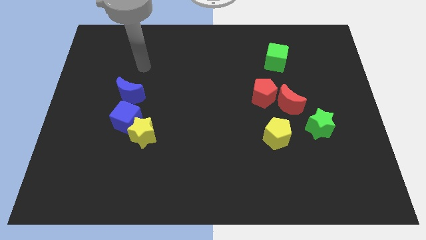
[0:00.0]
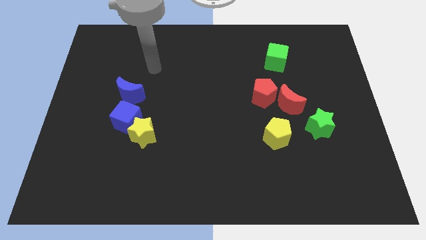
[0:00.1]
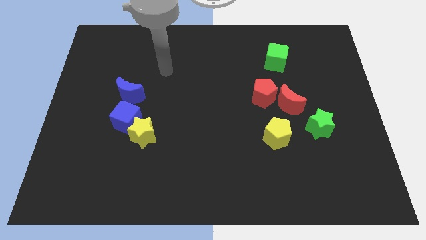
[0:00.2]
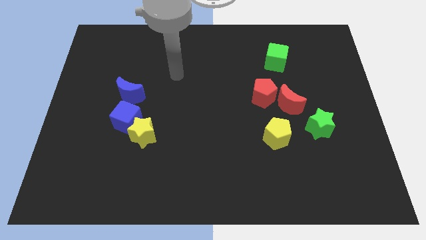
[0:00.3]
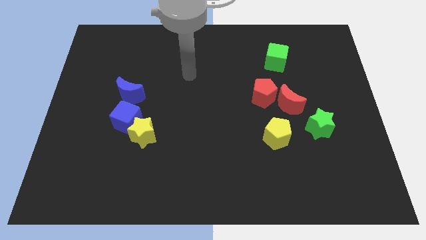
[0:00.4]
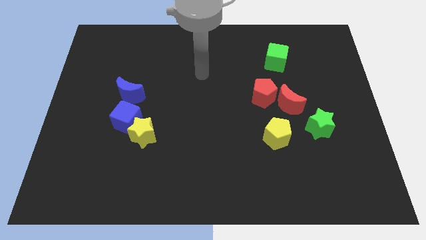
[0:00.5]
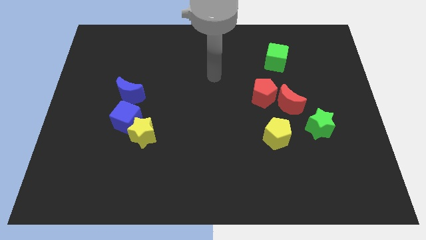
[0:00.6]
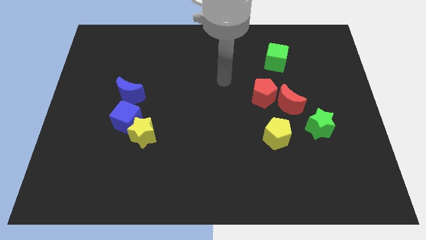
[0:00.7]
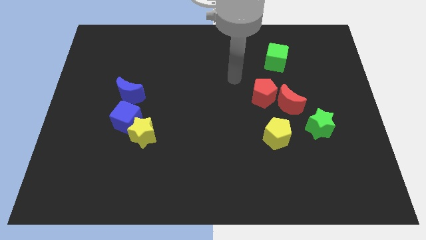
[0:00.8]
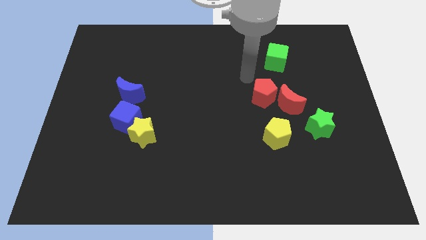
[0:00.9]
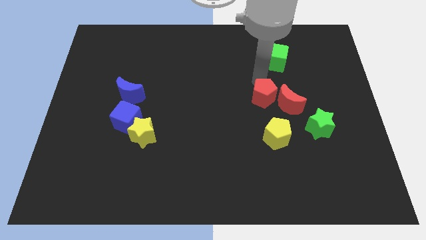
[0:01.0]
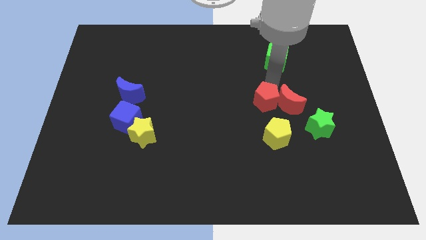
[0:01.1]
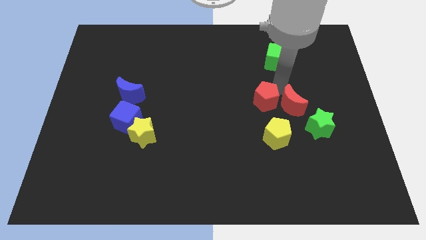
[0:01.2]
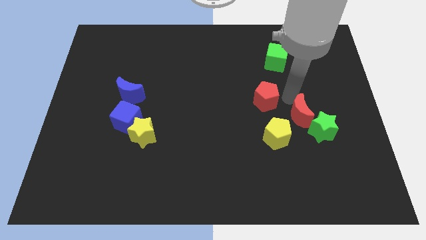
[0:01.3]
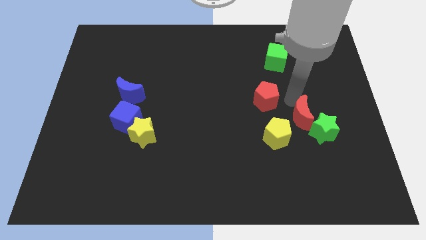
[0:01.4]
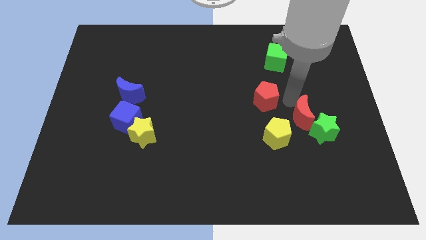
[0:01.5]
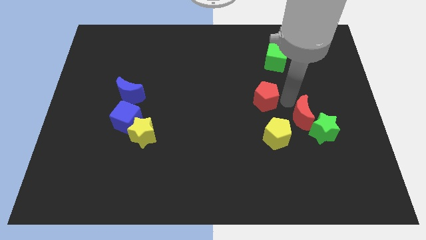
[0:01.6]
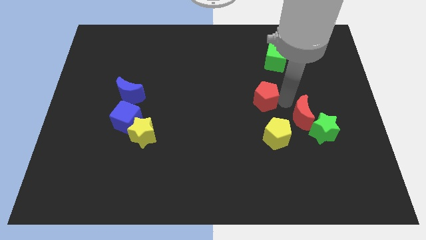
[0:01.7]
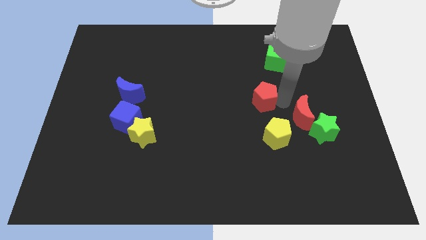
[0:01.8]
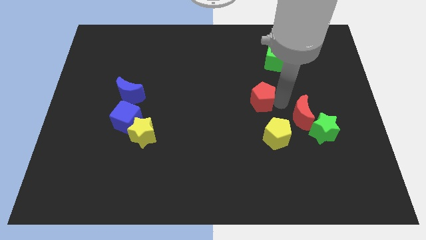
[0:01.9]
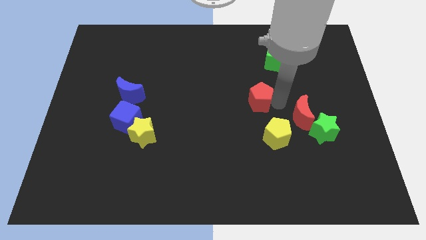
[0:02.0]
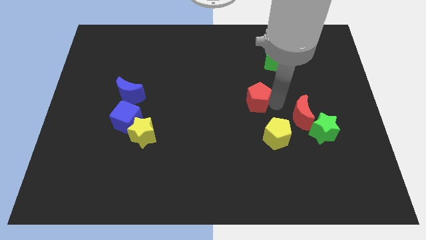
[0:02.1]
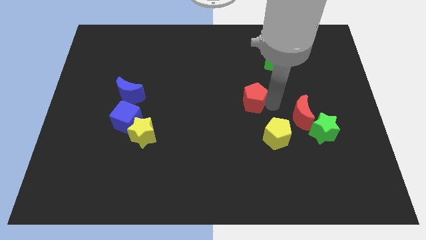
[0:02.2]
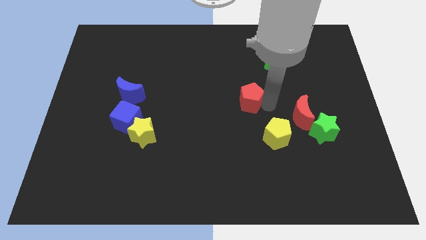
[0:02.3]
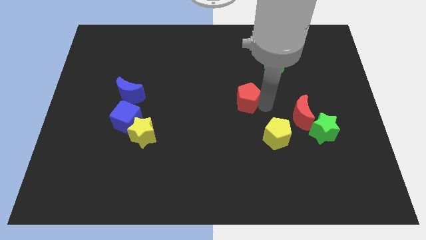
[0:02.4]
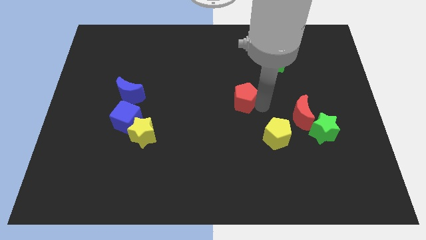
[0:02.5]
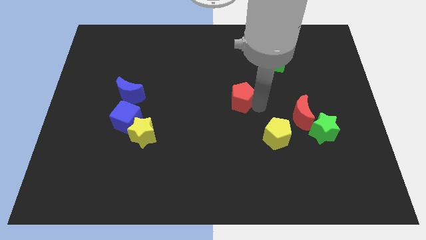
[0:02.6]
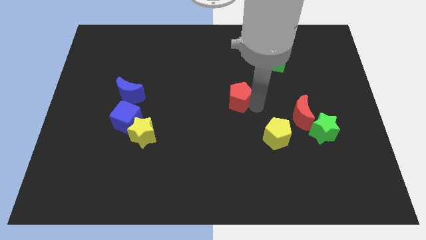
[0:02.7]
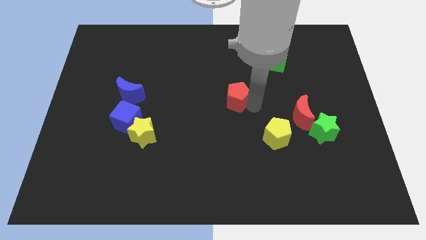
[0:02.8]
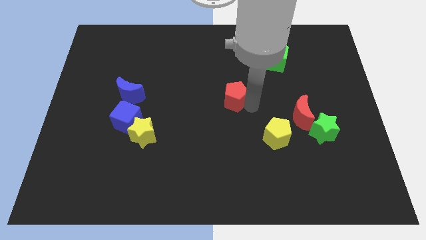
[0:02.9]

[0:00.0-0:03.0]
push the red pentagon to the left a bit

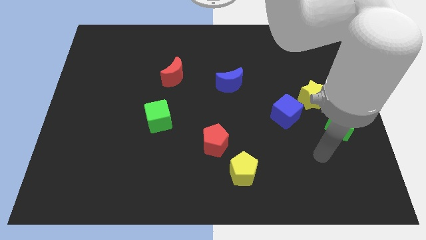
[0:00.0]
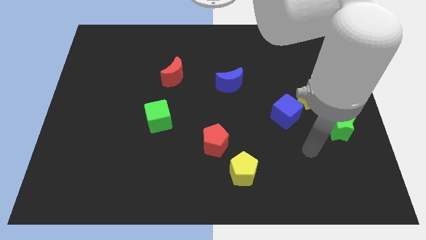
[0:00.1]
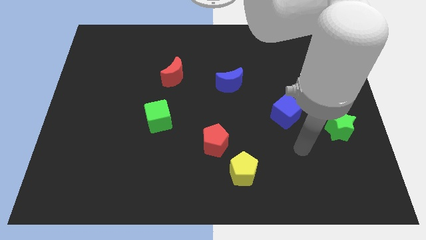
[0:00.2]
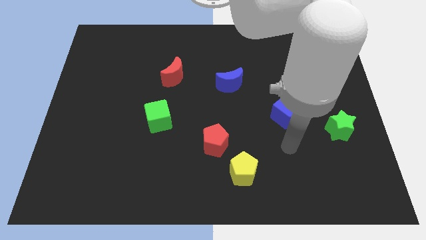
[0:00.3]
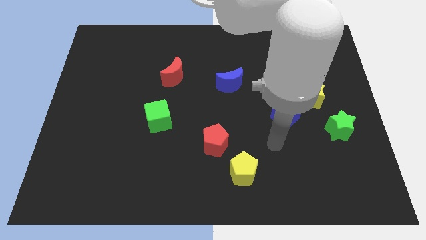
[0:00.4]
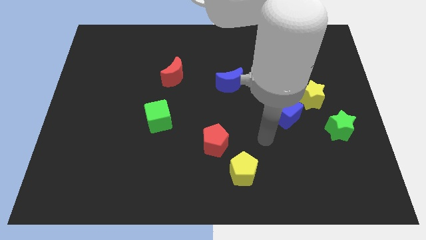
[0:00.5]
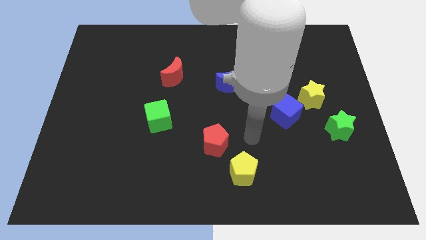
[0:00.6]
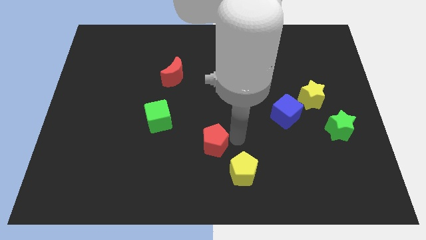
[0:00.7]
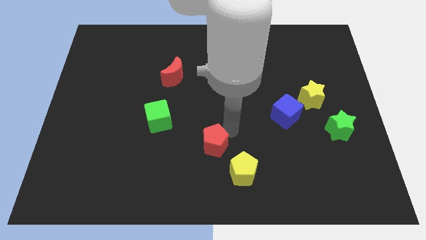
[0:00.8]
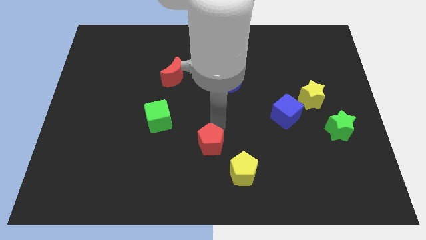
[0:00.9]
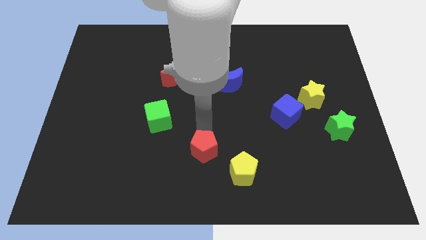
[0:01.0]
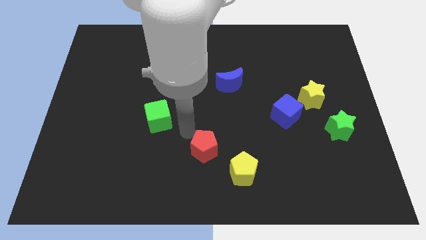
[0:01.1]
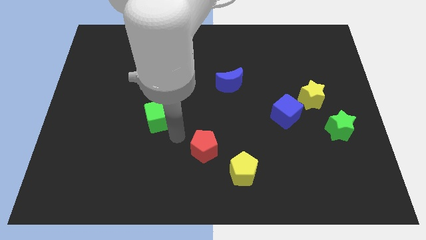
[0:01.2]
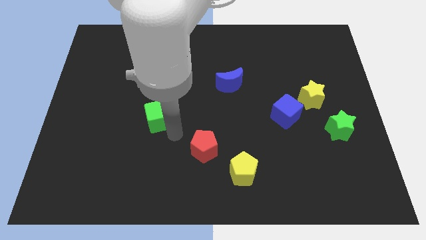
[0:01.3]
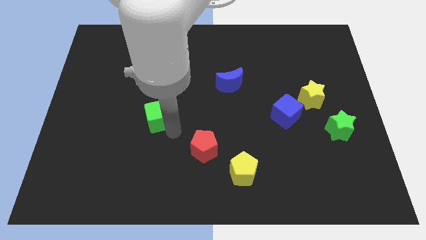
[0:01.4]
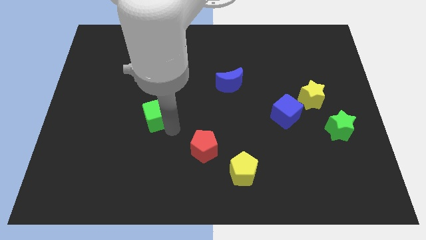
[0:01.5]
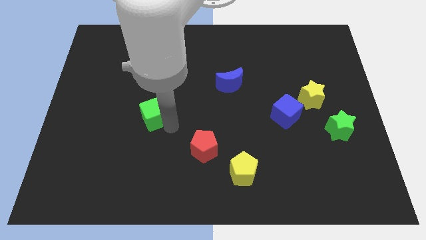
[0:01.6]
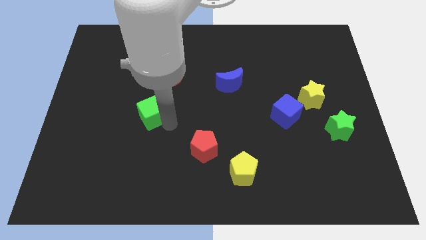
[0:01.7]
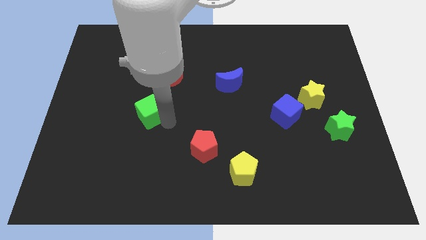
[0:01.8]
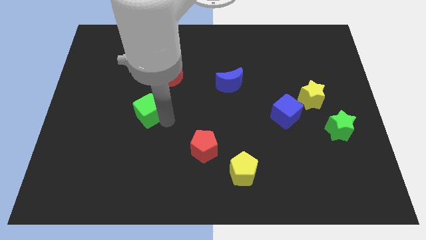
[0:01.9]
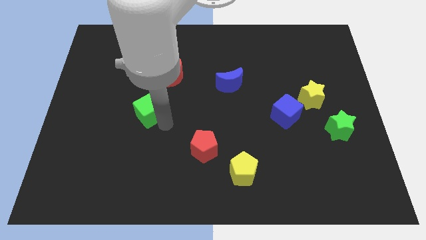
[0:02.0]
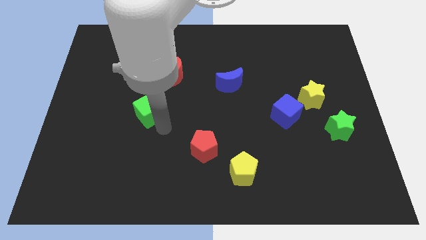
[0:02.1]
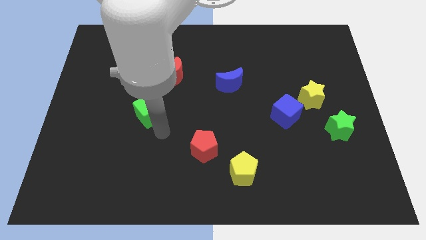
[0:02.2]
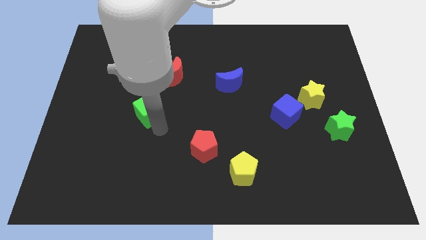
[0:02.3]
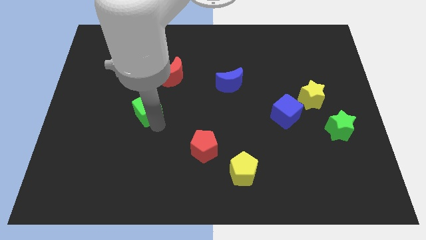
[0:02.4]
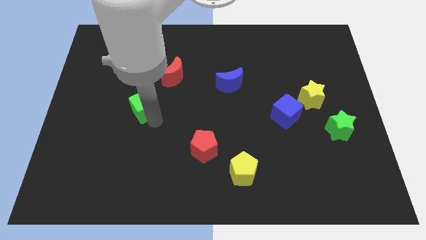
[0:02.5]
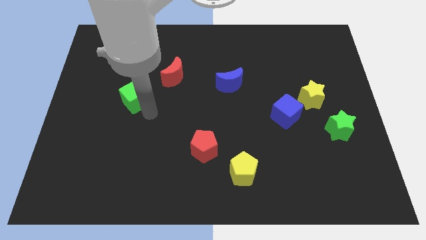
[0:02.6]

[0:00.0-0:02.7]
slightly slide the green cube upwards and left diagonally

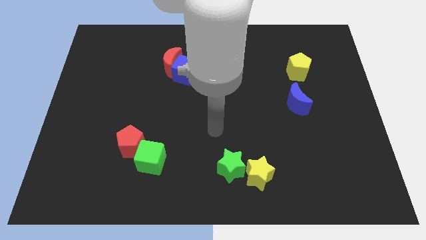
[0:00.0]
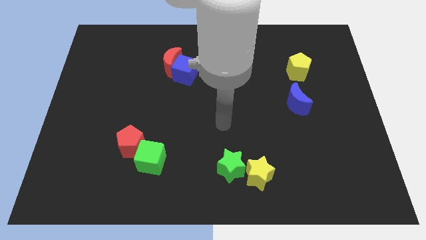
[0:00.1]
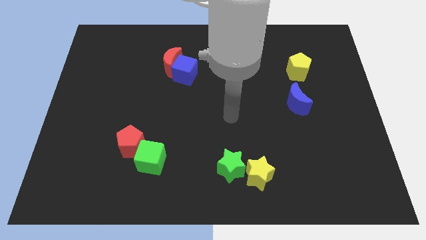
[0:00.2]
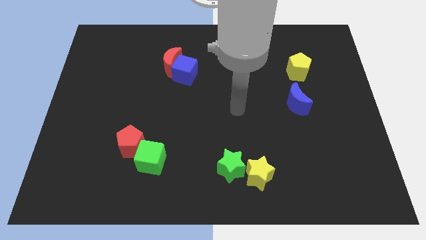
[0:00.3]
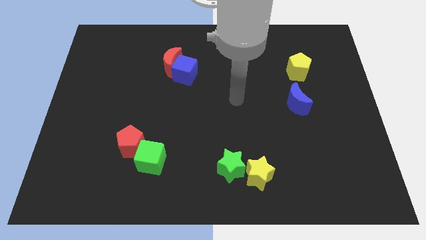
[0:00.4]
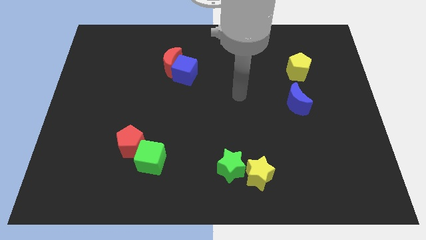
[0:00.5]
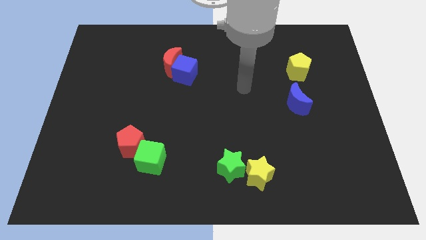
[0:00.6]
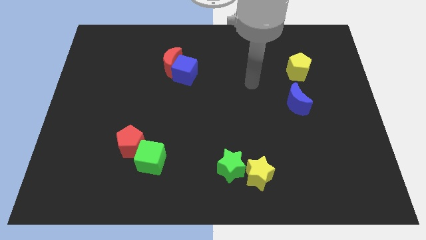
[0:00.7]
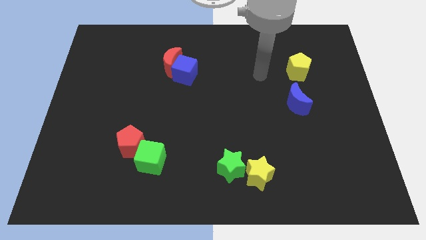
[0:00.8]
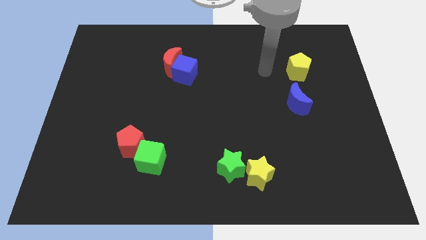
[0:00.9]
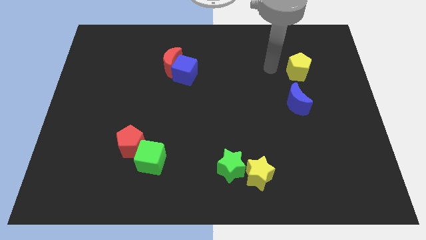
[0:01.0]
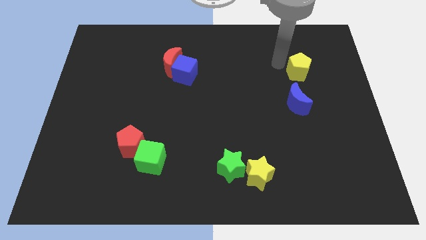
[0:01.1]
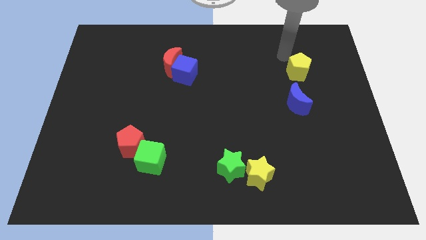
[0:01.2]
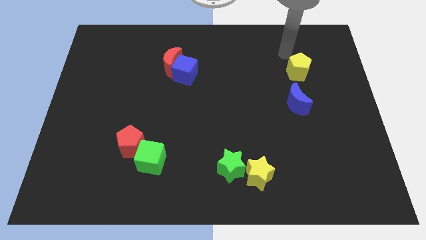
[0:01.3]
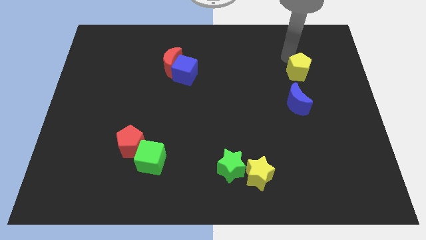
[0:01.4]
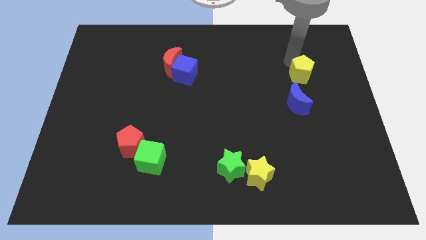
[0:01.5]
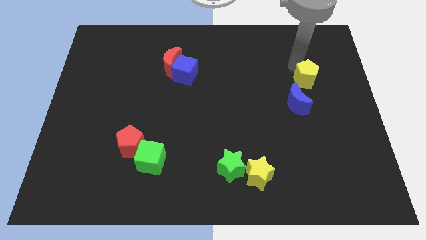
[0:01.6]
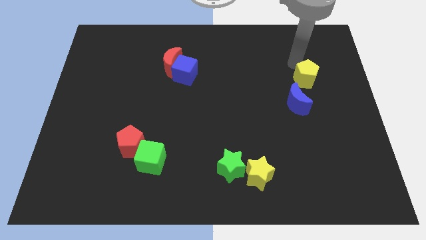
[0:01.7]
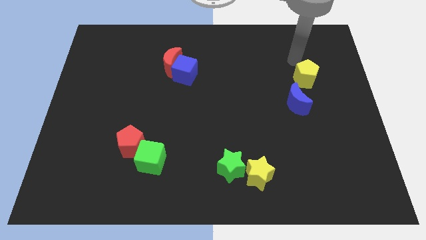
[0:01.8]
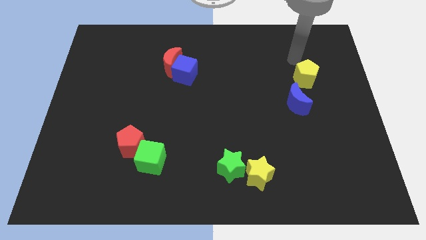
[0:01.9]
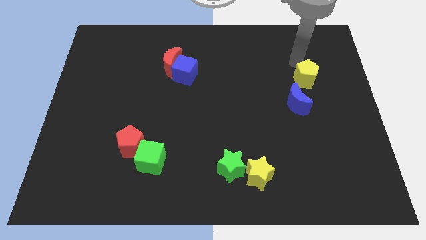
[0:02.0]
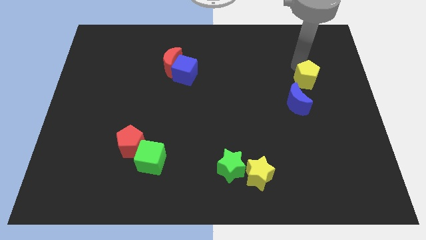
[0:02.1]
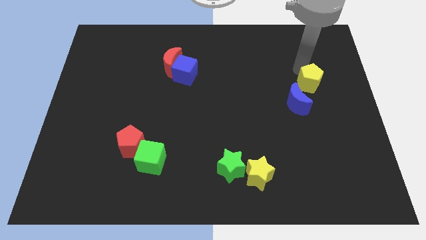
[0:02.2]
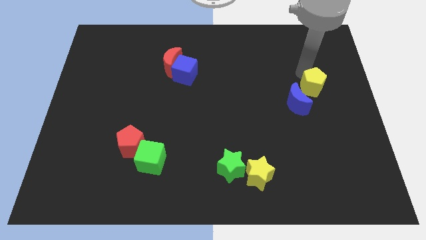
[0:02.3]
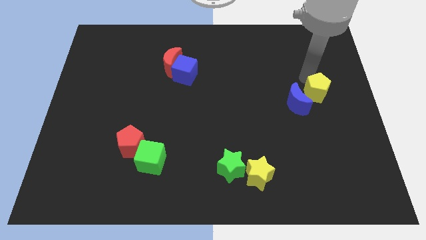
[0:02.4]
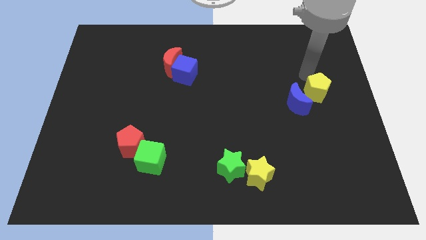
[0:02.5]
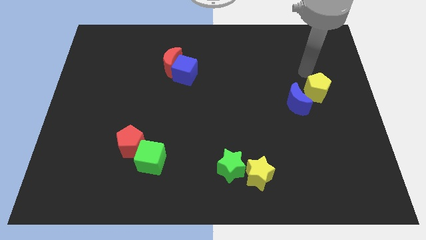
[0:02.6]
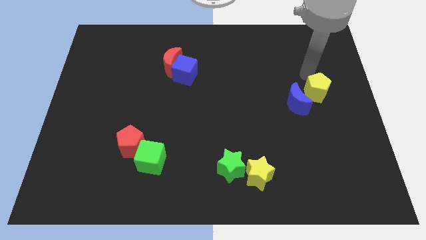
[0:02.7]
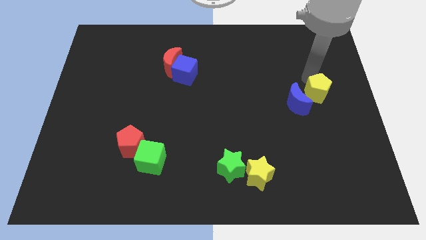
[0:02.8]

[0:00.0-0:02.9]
slightly push the yellow pentagon downwards
